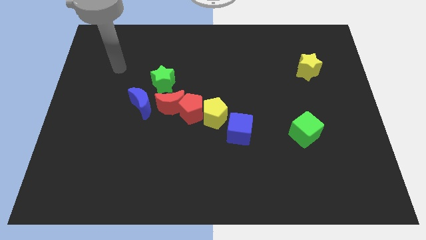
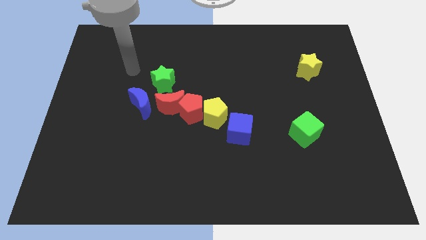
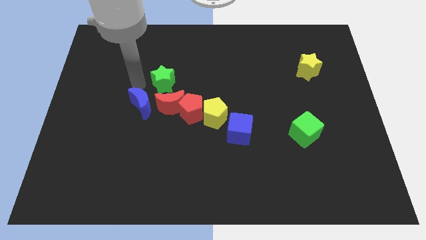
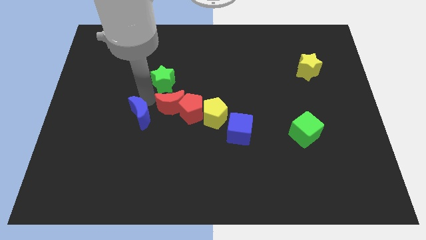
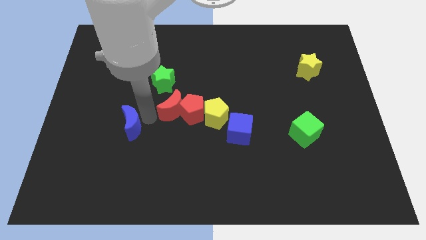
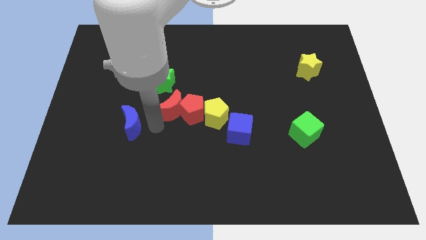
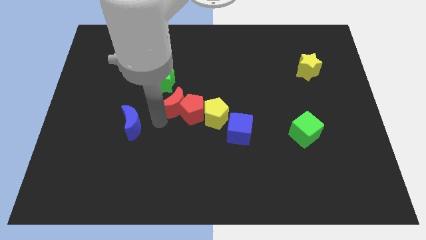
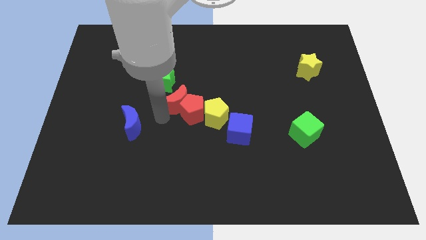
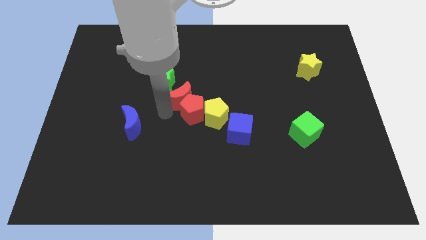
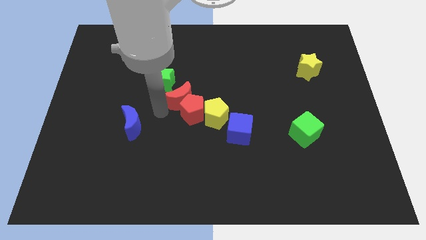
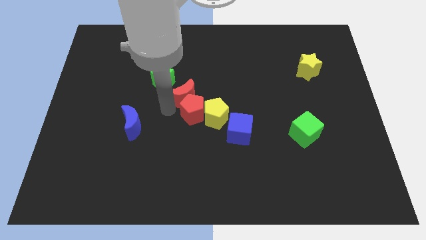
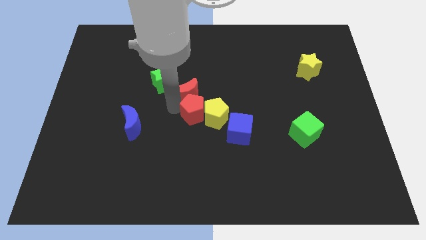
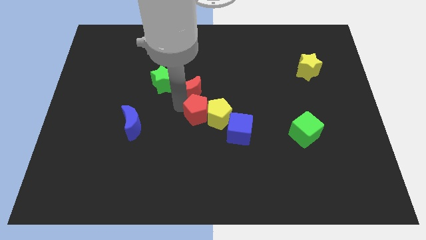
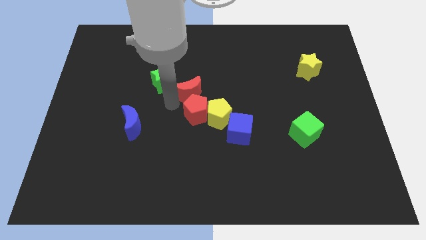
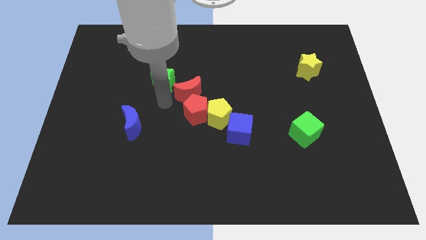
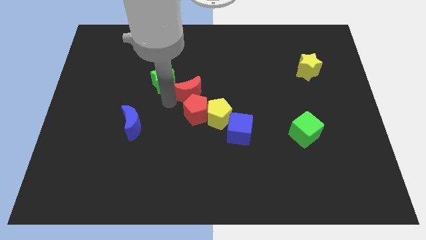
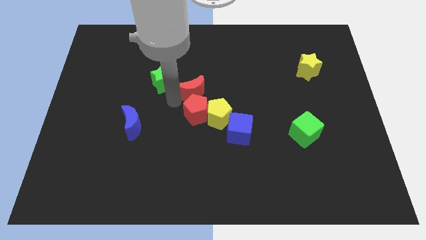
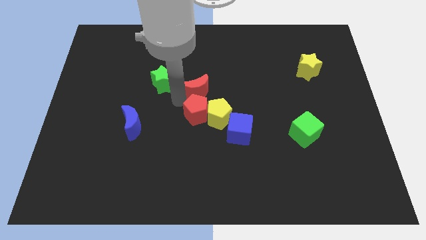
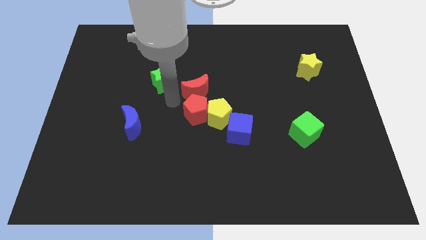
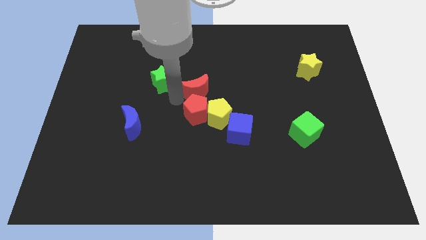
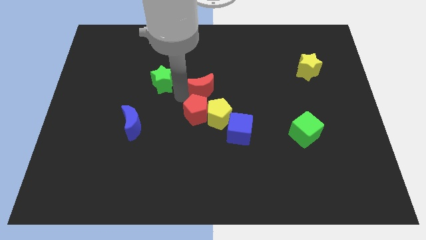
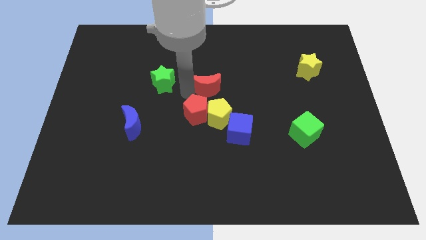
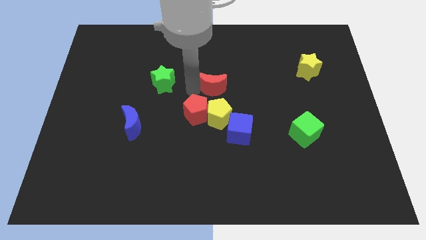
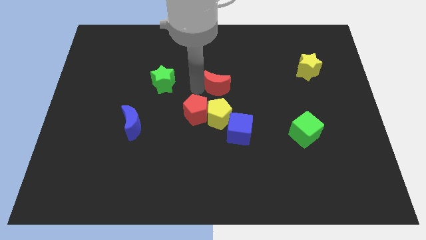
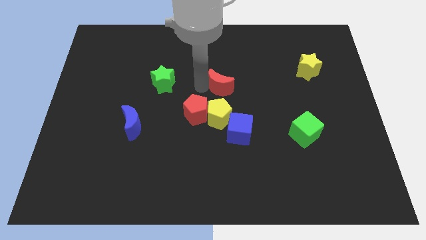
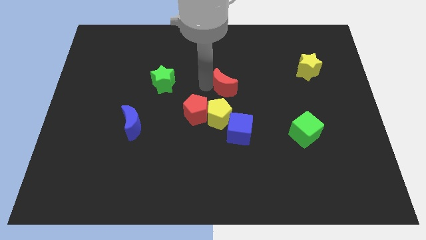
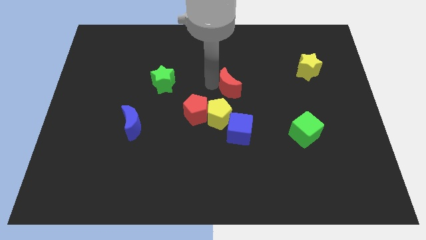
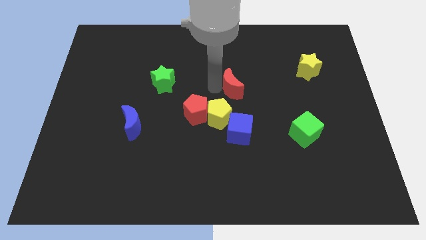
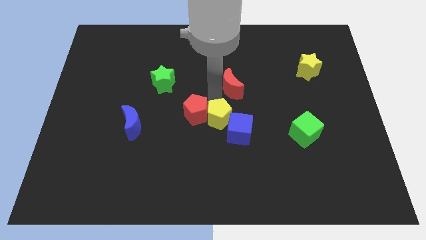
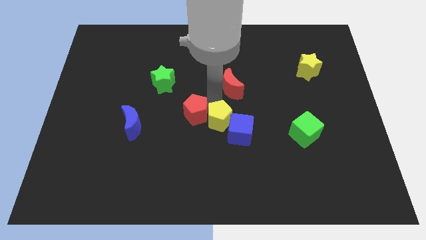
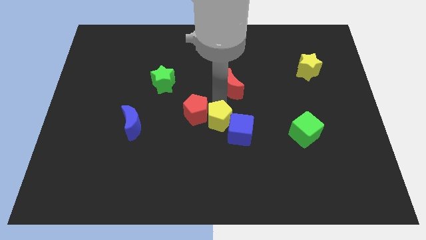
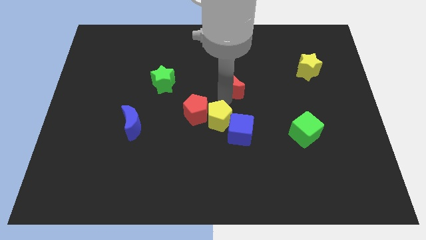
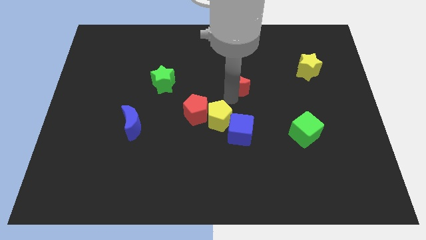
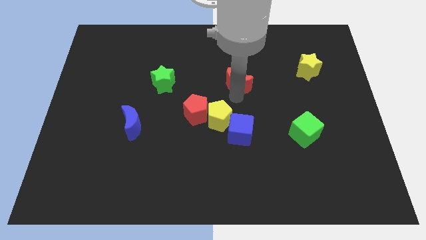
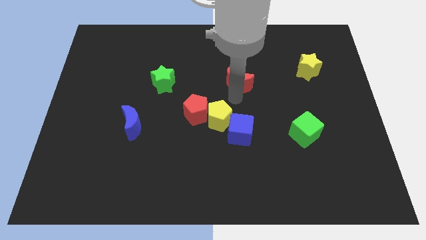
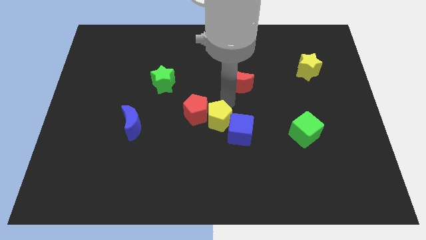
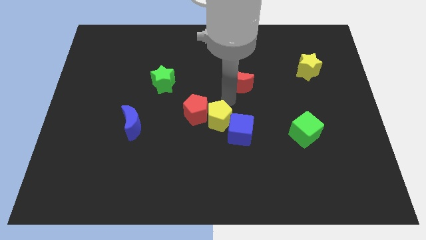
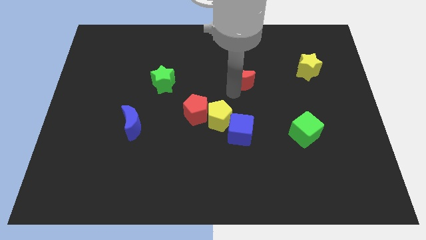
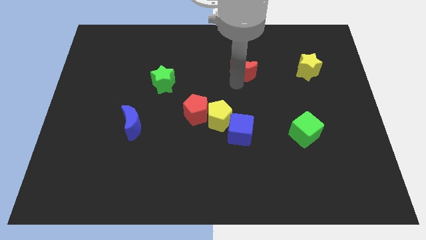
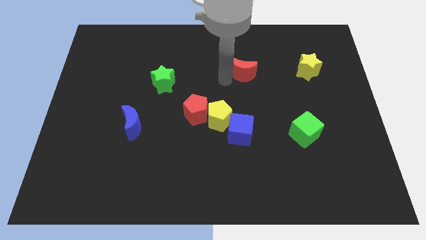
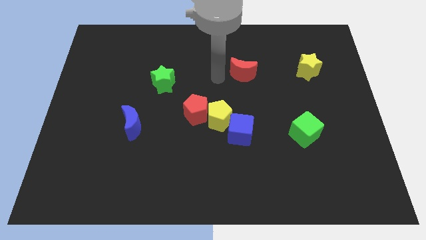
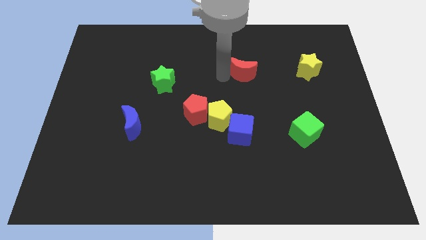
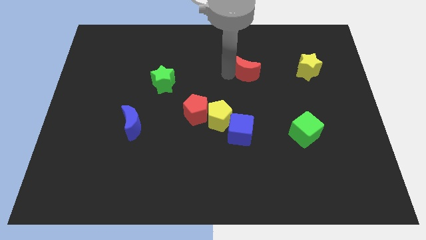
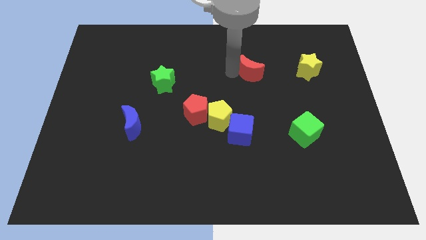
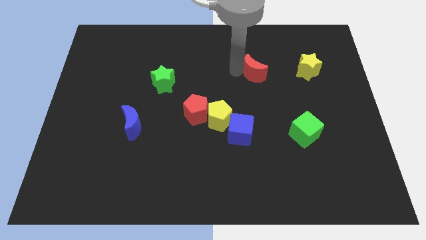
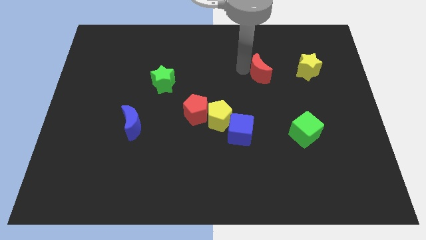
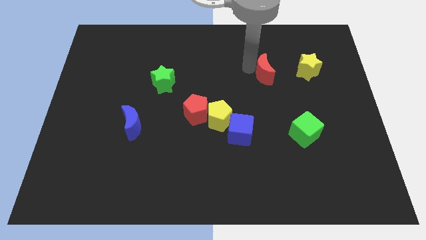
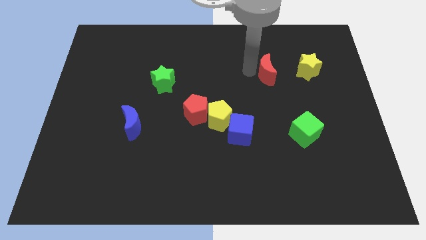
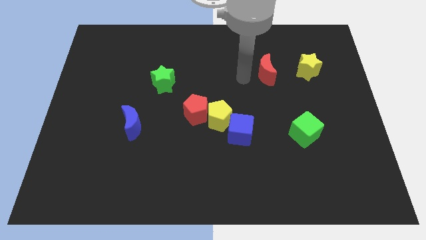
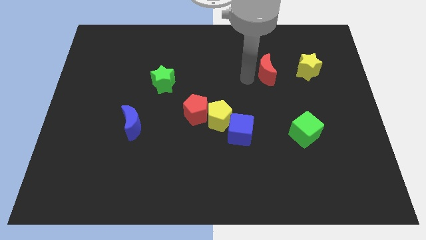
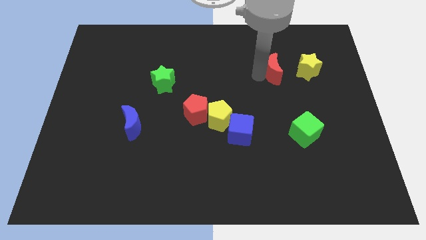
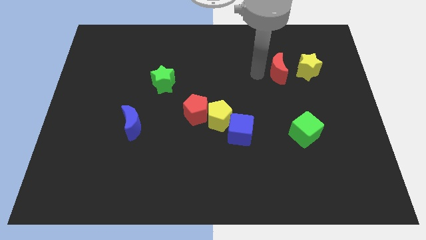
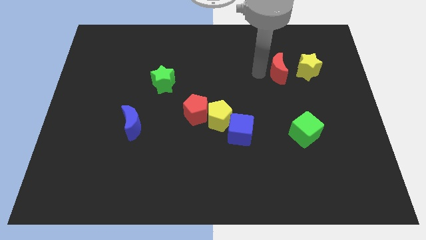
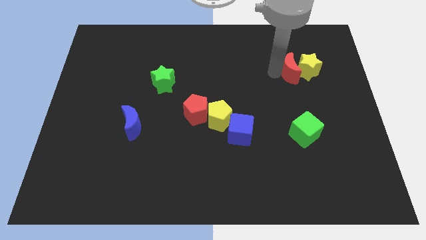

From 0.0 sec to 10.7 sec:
put the red moon close to the yellow star

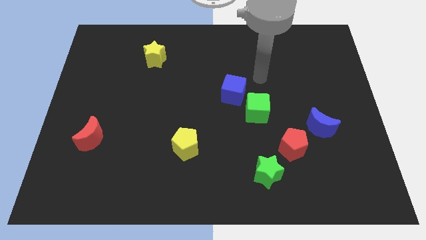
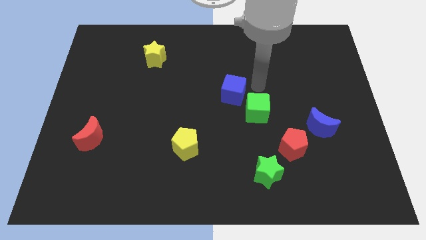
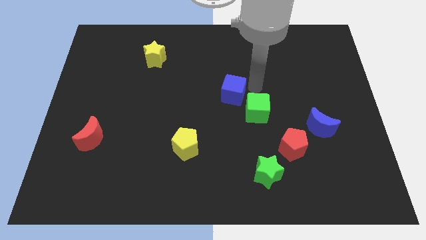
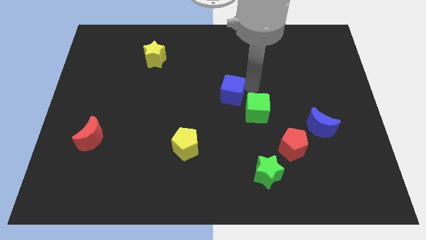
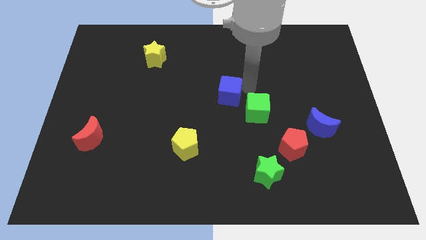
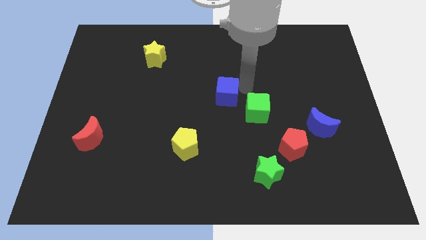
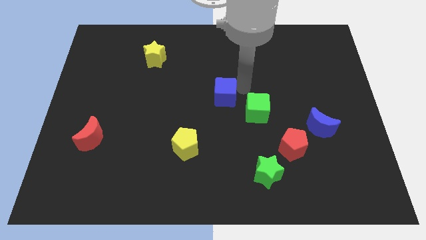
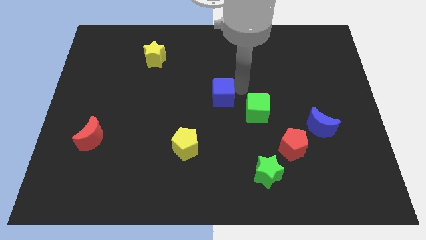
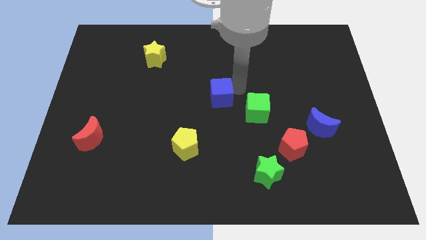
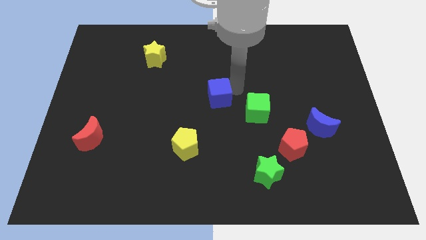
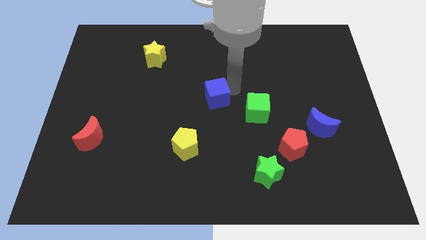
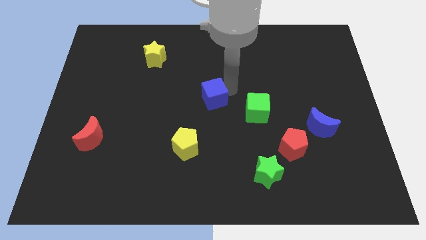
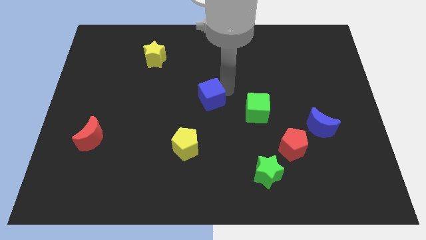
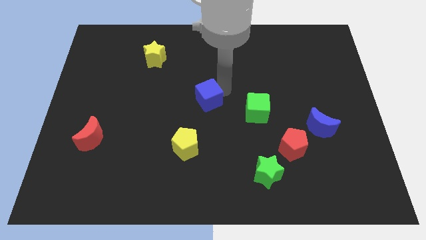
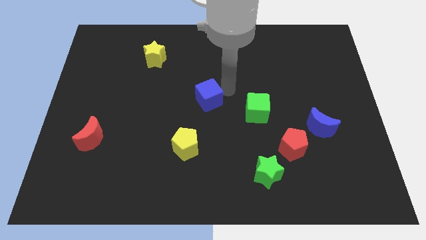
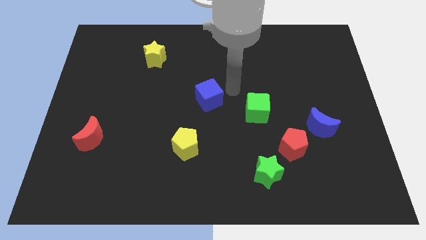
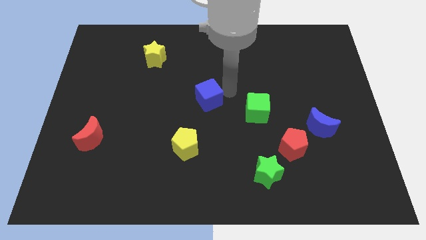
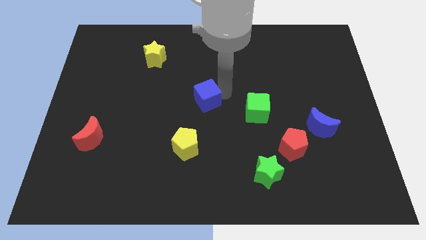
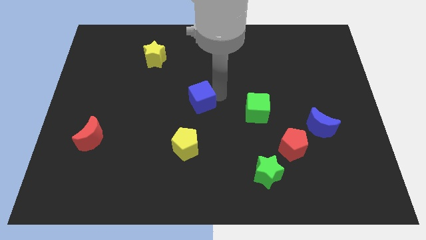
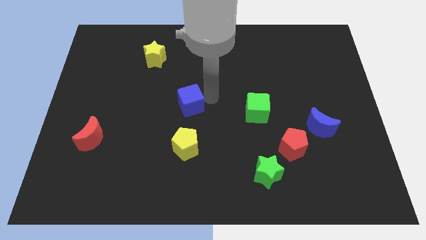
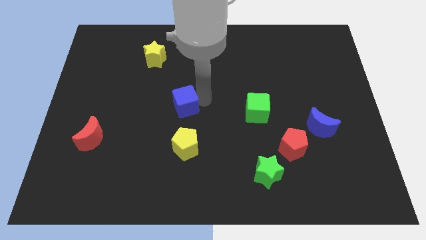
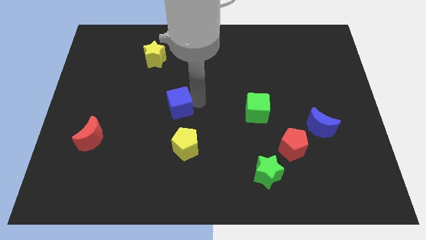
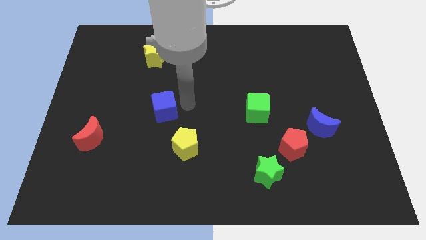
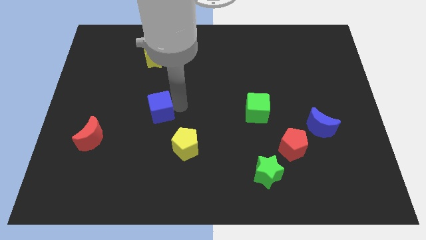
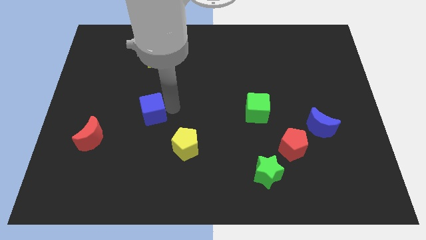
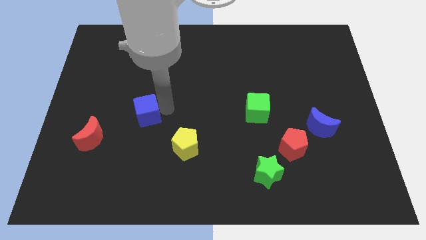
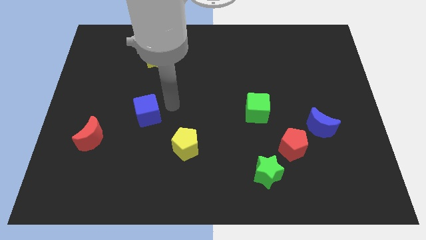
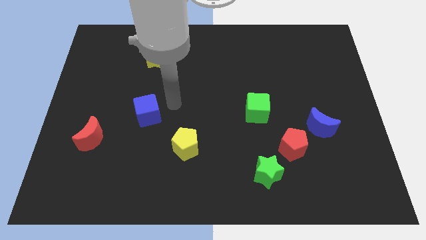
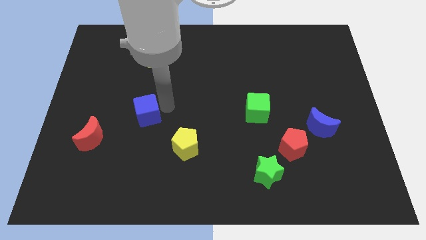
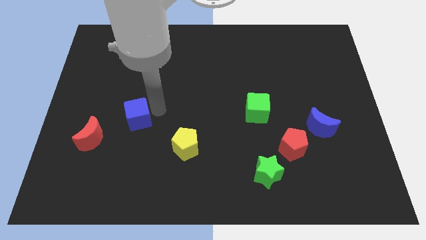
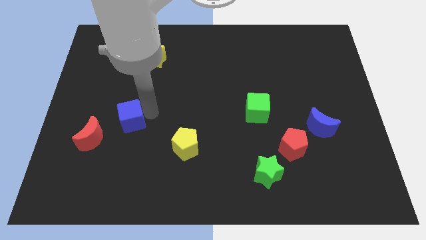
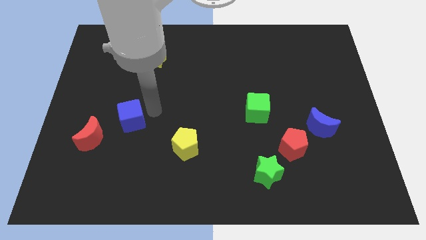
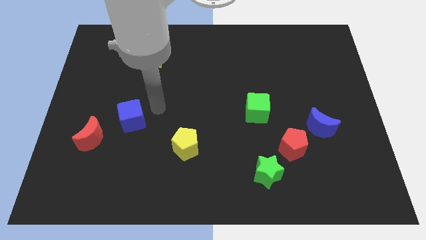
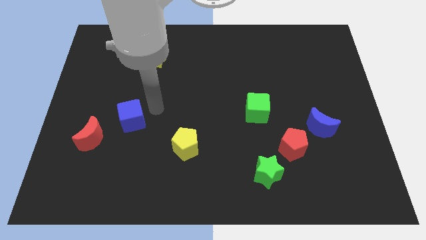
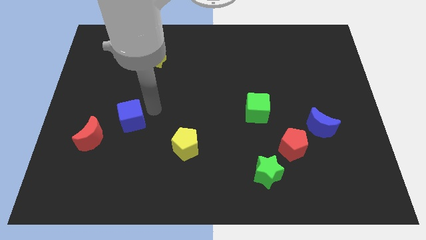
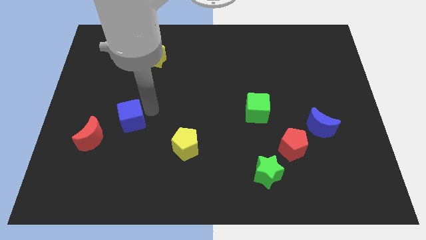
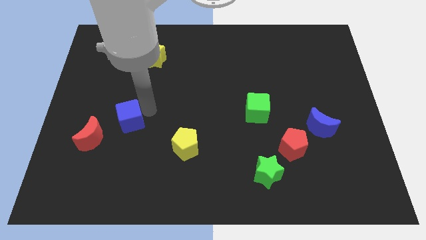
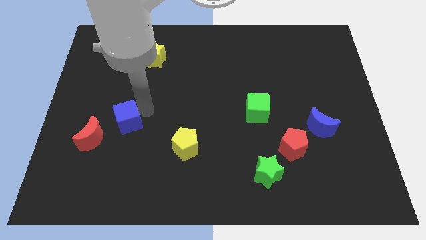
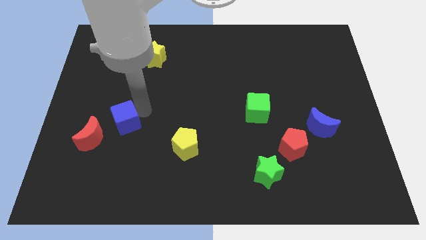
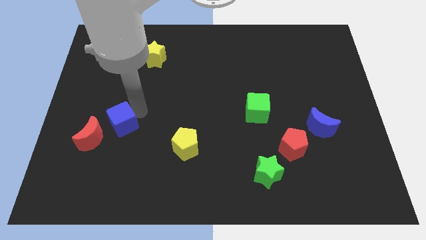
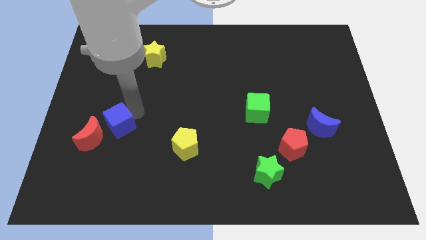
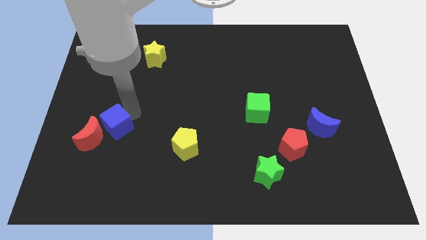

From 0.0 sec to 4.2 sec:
put the blue cube towards the red moon
